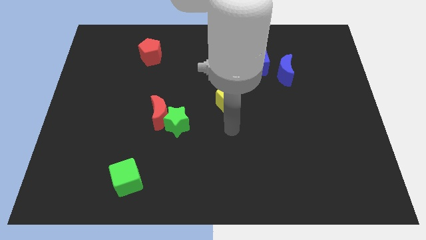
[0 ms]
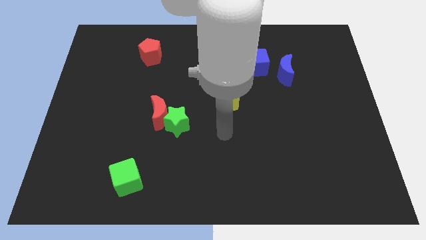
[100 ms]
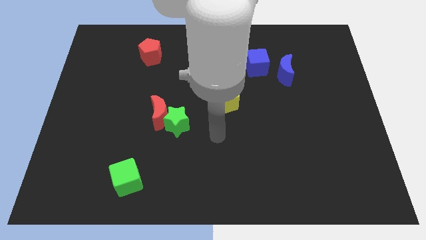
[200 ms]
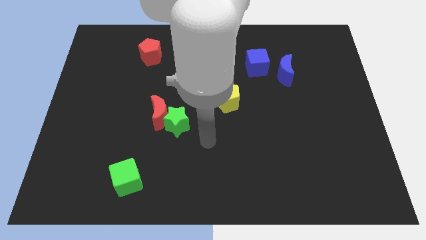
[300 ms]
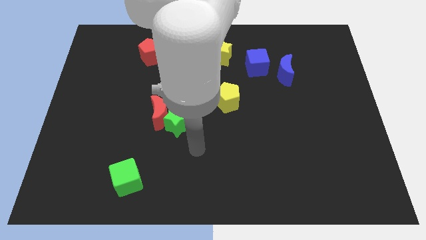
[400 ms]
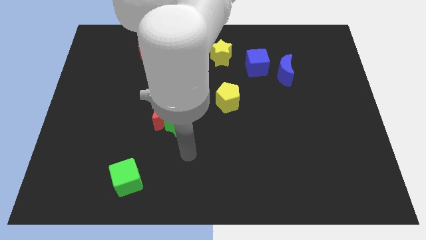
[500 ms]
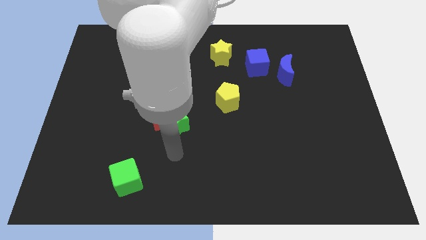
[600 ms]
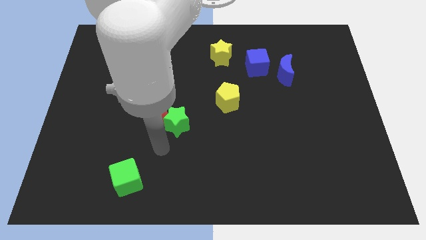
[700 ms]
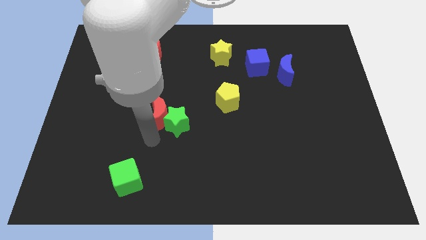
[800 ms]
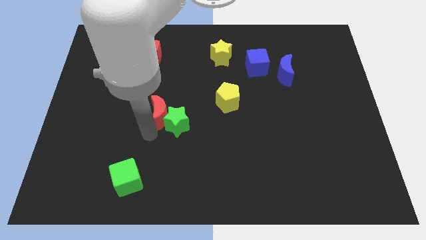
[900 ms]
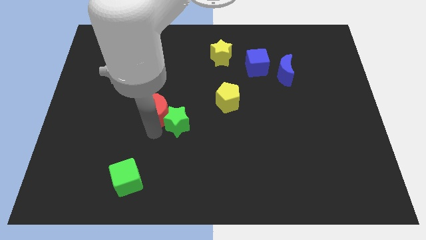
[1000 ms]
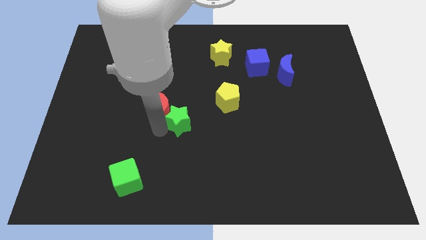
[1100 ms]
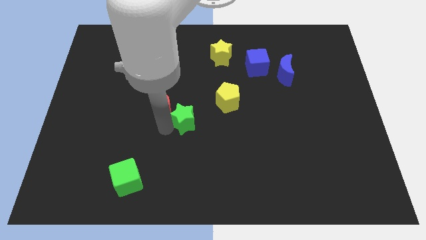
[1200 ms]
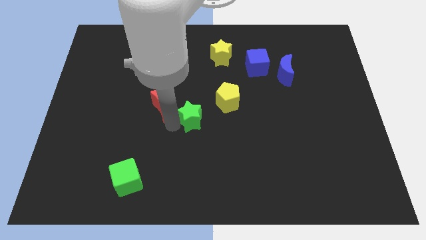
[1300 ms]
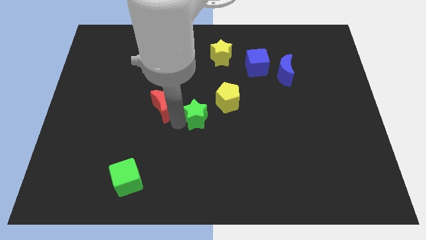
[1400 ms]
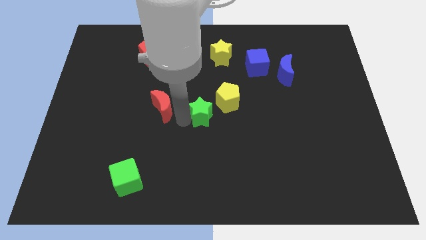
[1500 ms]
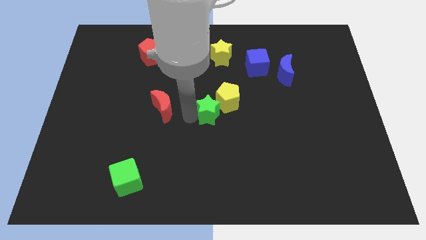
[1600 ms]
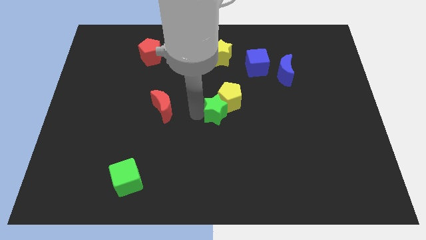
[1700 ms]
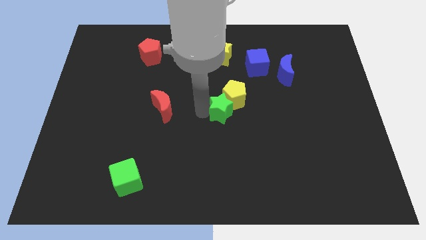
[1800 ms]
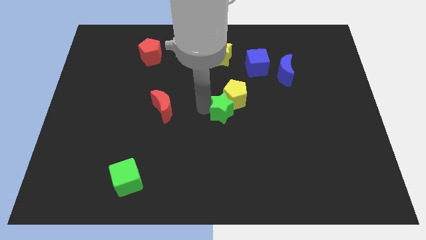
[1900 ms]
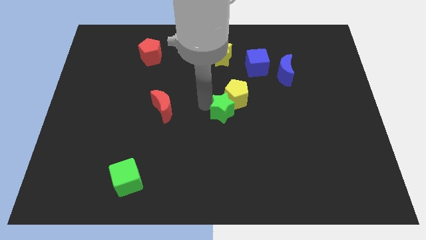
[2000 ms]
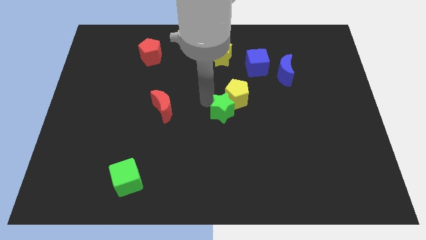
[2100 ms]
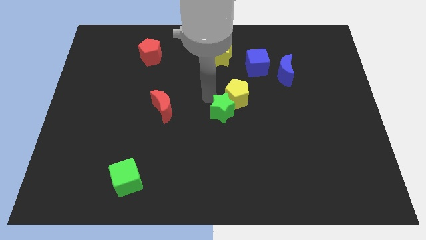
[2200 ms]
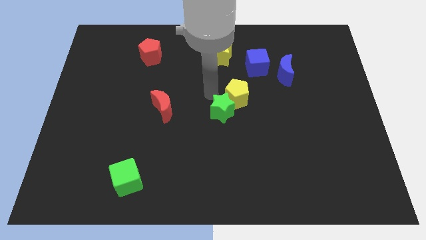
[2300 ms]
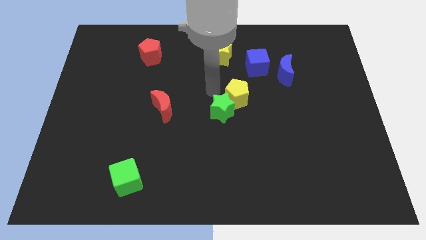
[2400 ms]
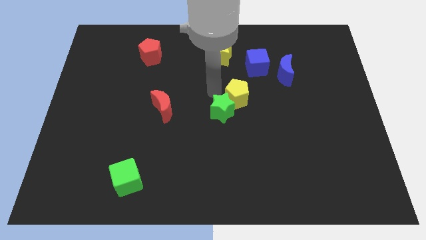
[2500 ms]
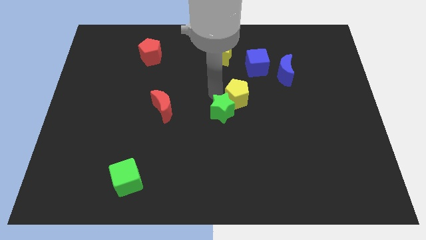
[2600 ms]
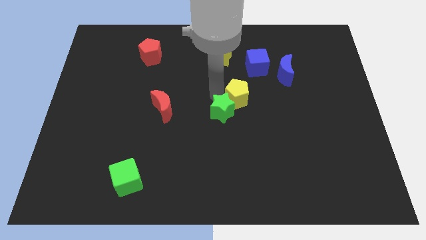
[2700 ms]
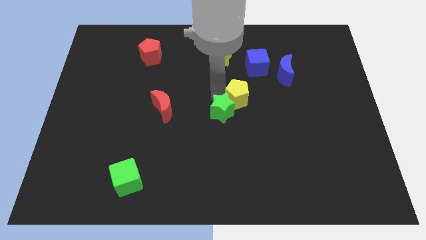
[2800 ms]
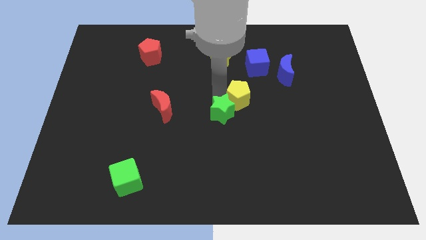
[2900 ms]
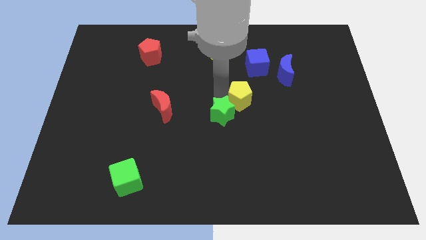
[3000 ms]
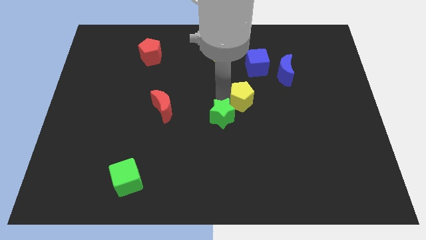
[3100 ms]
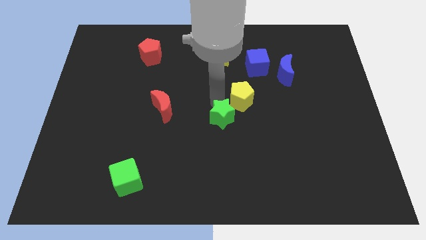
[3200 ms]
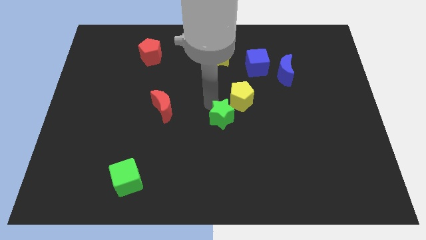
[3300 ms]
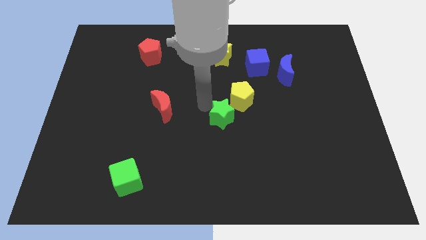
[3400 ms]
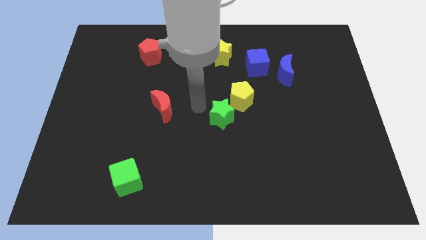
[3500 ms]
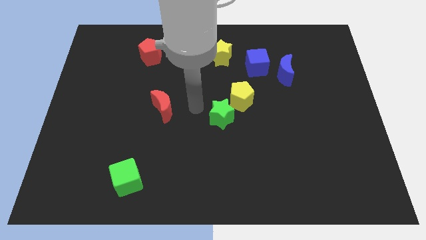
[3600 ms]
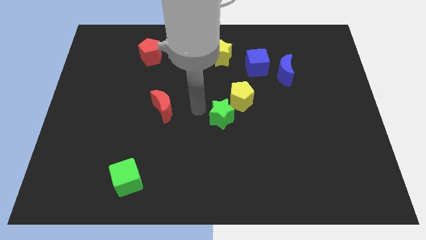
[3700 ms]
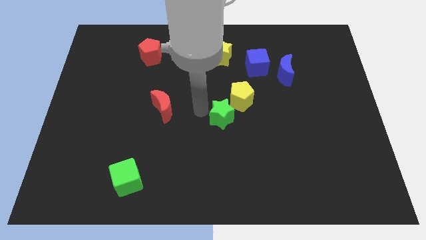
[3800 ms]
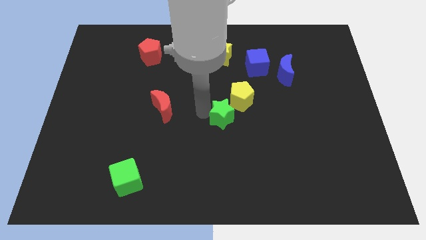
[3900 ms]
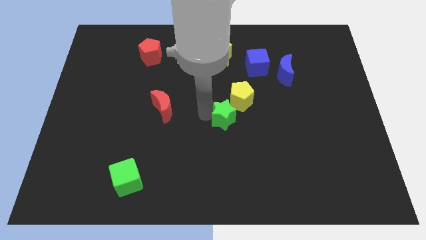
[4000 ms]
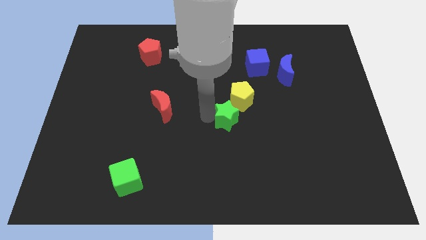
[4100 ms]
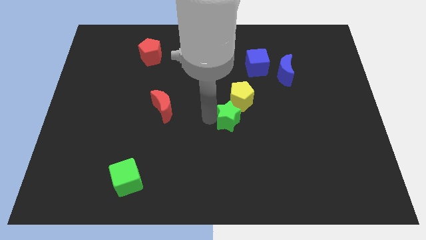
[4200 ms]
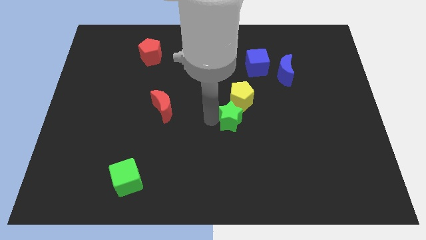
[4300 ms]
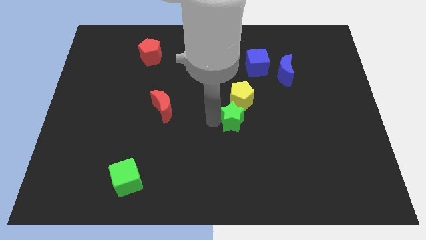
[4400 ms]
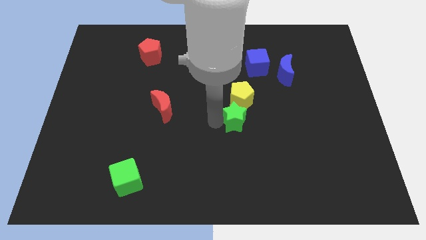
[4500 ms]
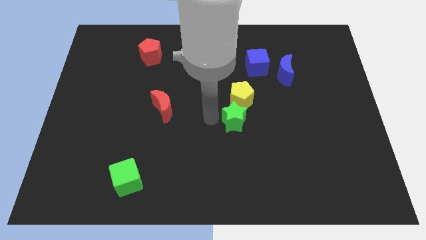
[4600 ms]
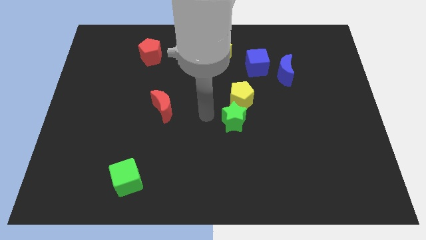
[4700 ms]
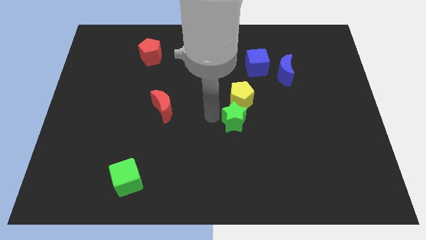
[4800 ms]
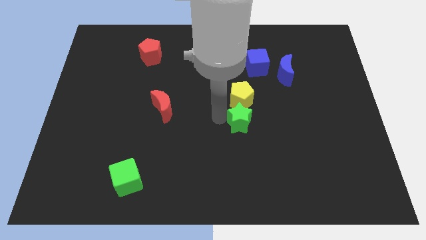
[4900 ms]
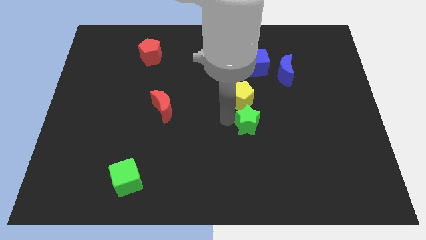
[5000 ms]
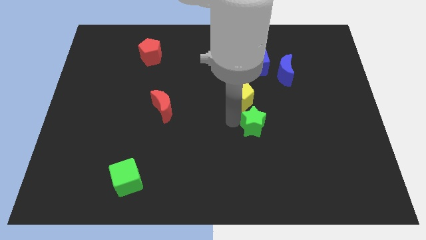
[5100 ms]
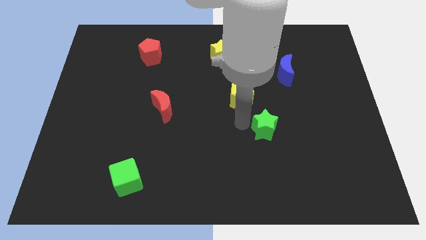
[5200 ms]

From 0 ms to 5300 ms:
slide the green star to the right

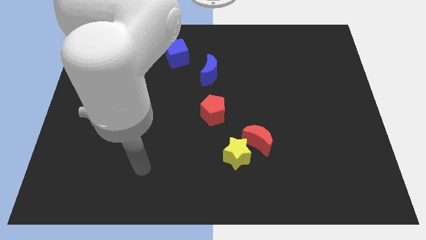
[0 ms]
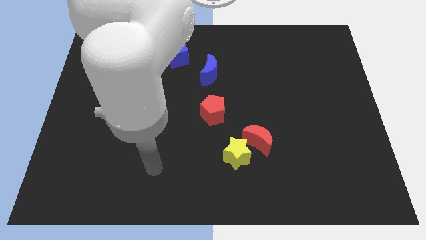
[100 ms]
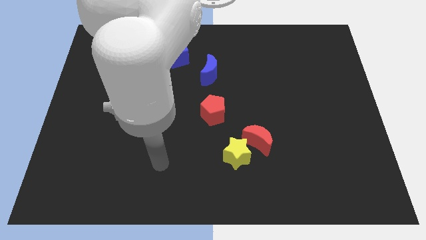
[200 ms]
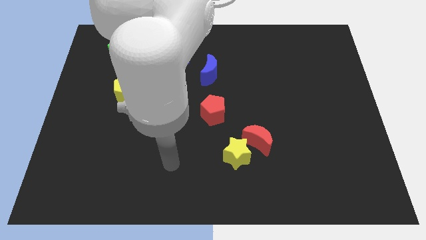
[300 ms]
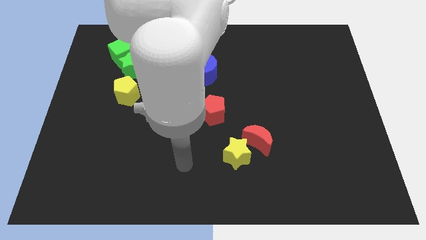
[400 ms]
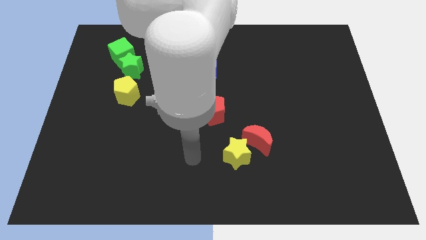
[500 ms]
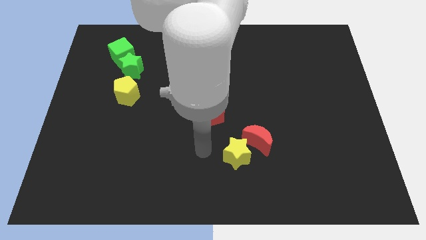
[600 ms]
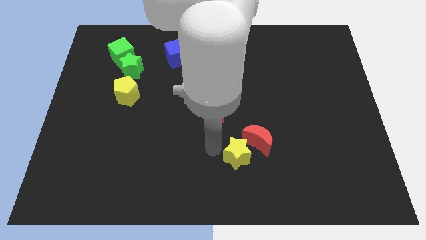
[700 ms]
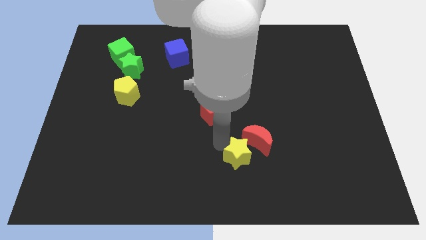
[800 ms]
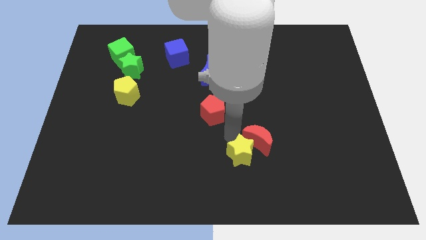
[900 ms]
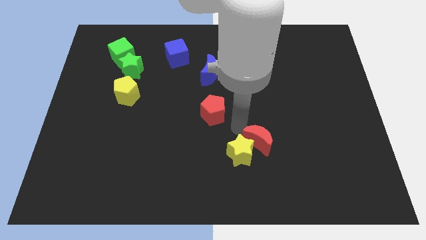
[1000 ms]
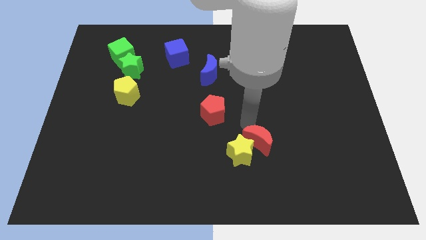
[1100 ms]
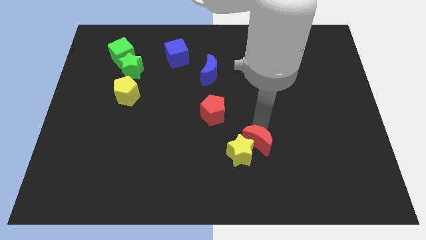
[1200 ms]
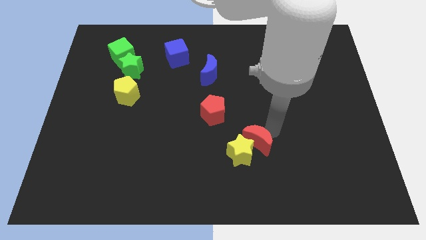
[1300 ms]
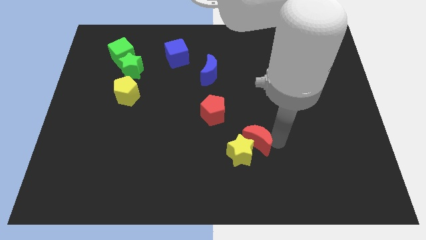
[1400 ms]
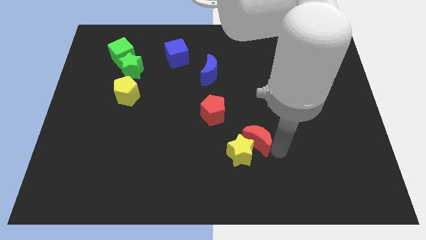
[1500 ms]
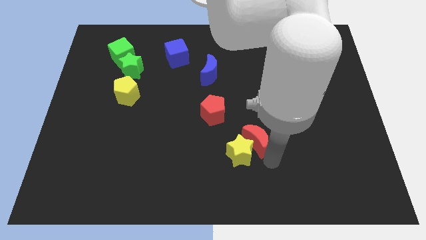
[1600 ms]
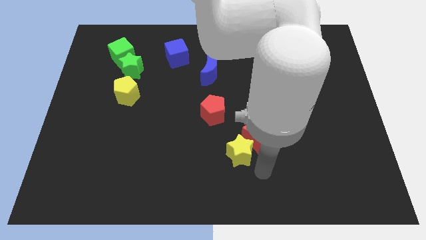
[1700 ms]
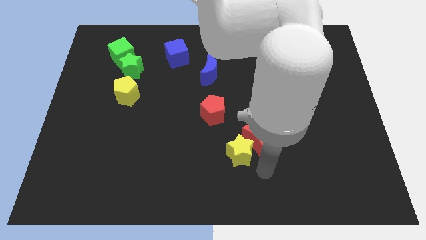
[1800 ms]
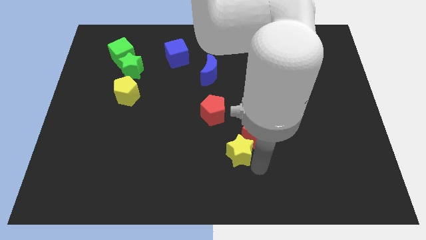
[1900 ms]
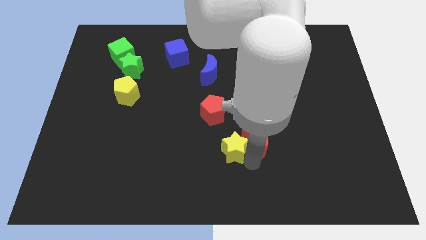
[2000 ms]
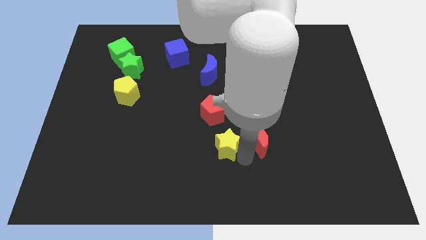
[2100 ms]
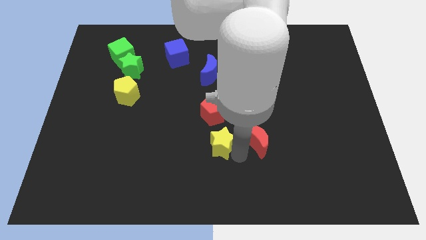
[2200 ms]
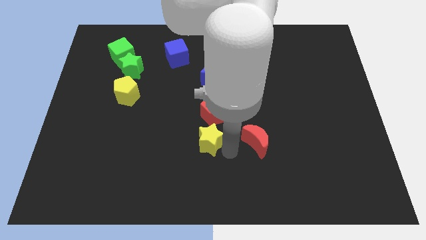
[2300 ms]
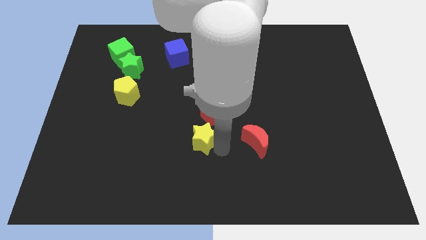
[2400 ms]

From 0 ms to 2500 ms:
slightly slide the yellow star upwards and left

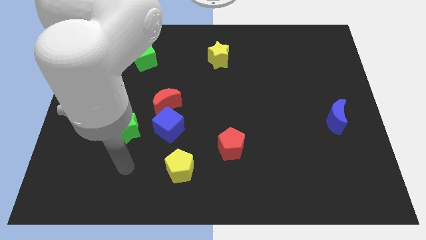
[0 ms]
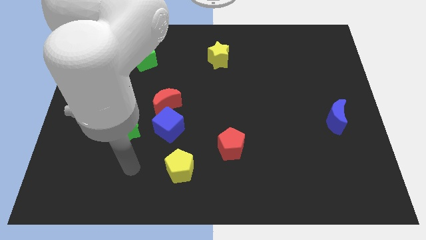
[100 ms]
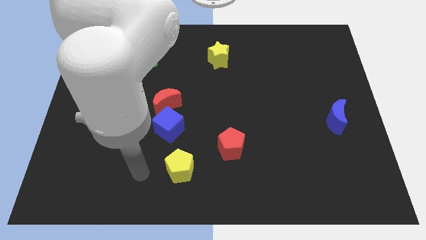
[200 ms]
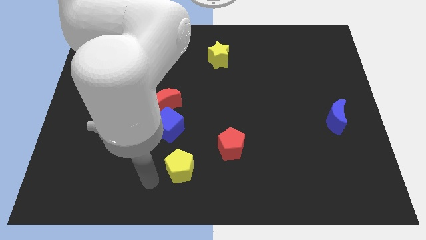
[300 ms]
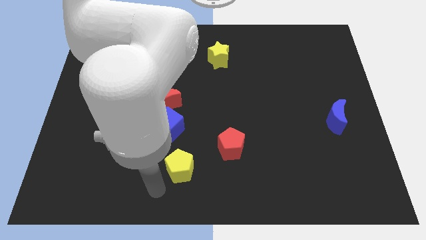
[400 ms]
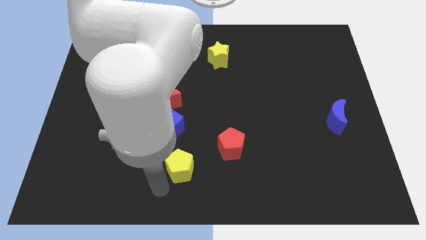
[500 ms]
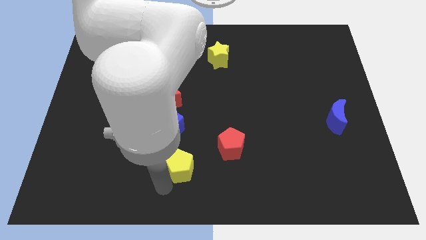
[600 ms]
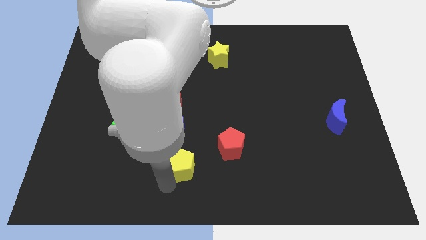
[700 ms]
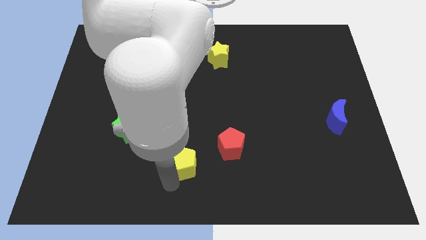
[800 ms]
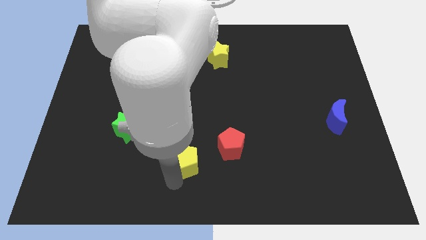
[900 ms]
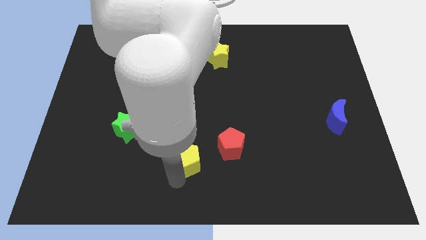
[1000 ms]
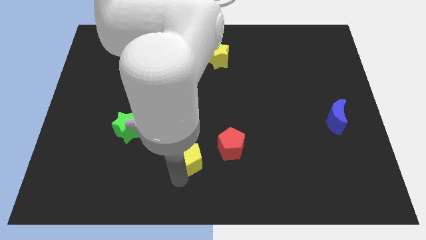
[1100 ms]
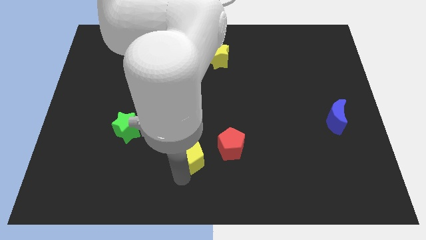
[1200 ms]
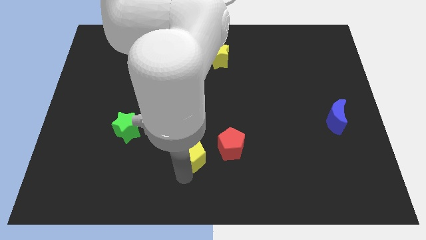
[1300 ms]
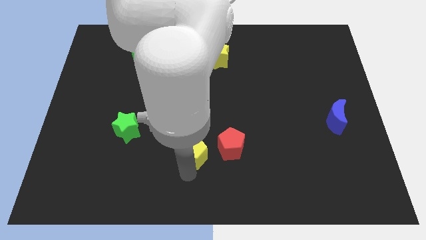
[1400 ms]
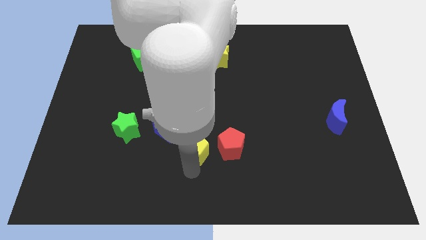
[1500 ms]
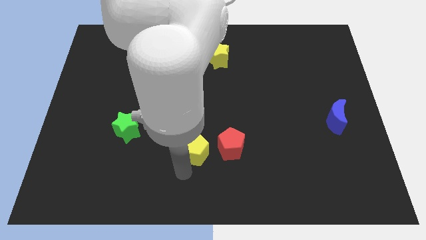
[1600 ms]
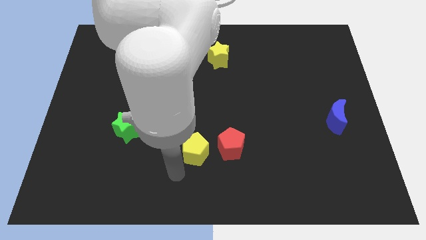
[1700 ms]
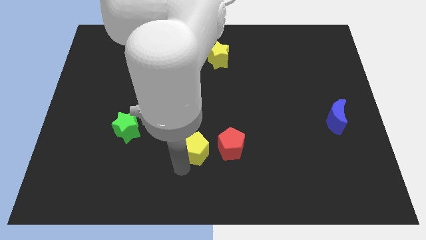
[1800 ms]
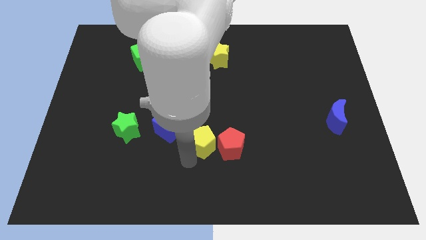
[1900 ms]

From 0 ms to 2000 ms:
slide the yellow pentagon upwards and to the right a bit
